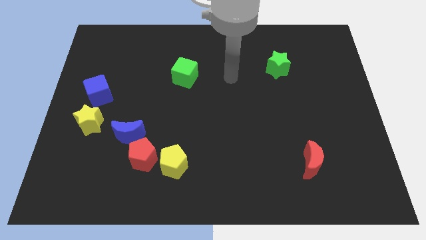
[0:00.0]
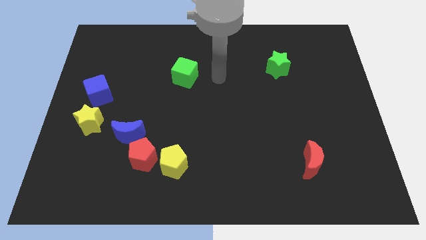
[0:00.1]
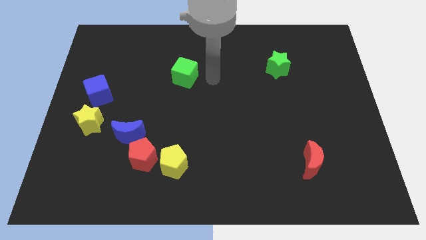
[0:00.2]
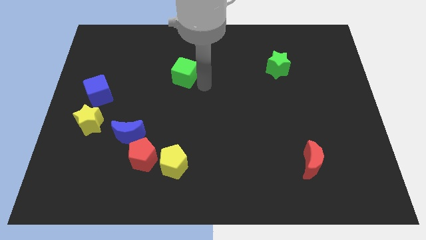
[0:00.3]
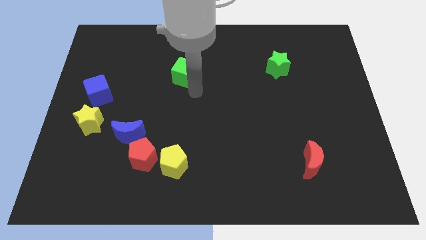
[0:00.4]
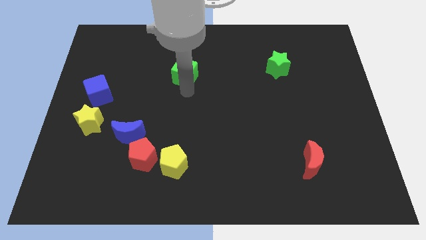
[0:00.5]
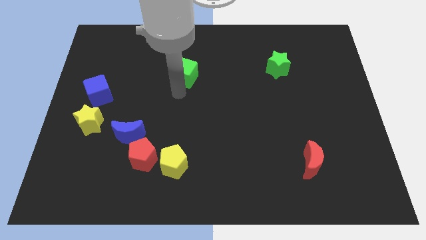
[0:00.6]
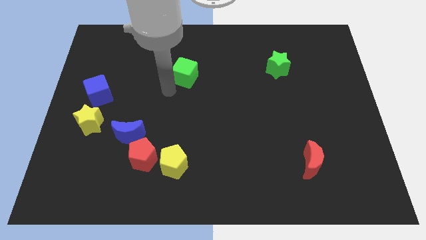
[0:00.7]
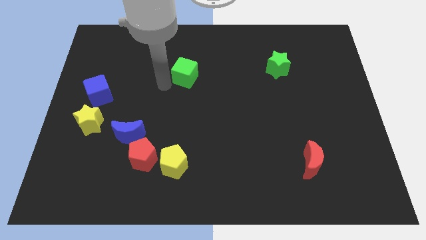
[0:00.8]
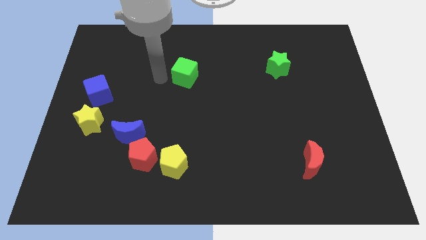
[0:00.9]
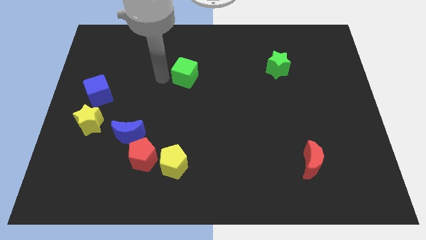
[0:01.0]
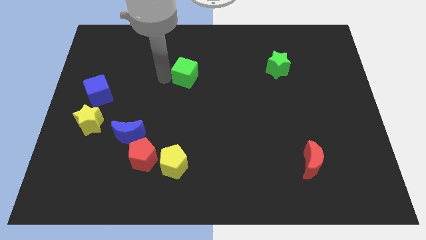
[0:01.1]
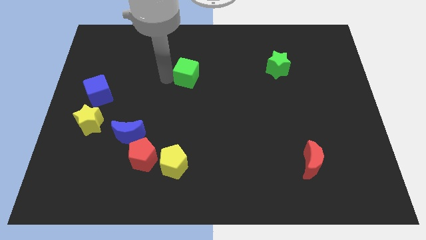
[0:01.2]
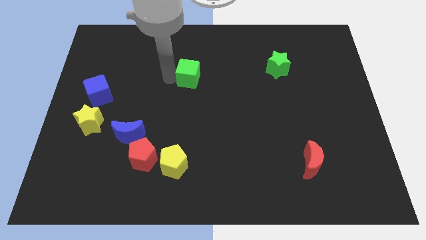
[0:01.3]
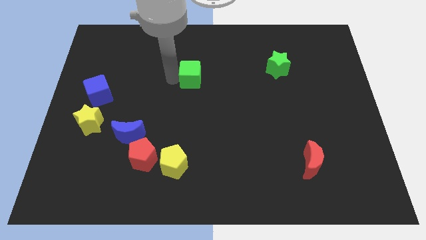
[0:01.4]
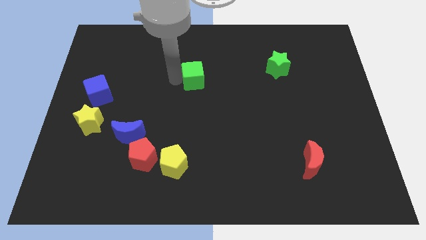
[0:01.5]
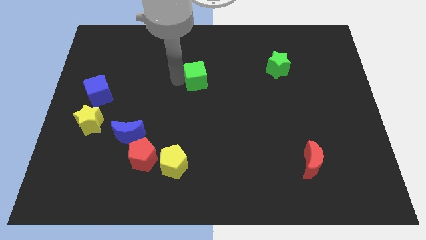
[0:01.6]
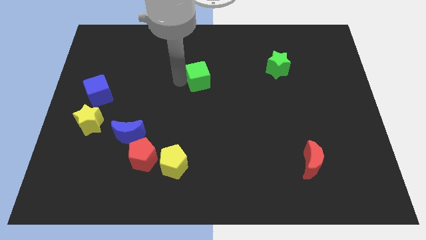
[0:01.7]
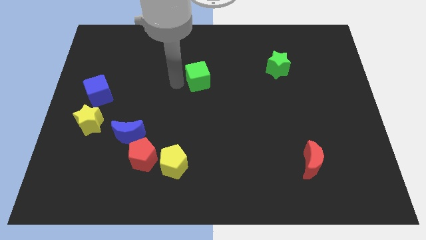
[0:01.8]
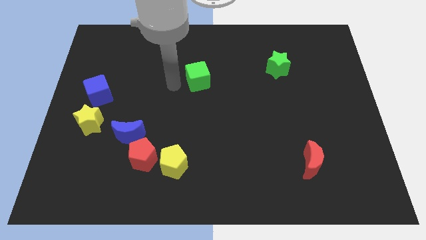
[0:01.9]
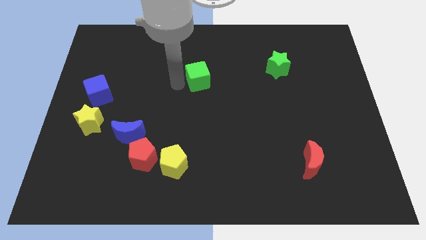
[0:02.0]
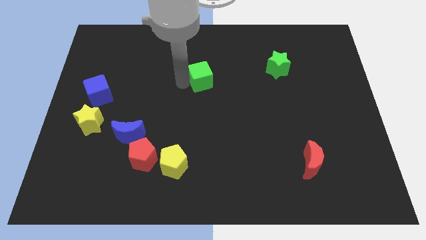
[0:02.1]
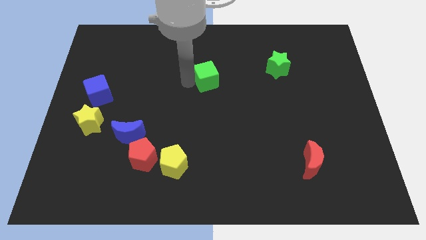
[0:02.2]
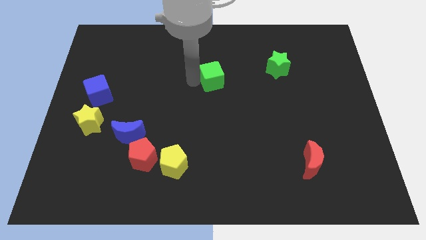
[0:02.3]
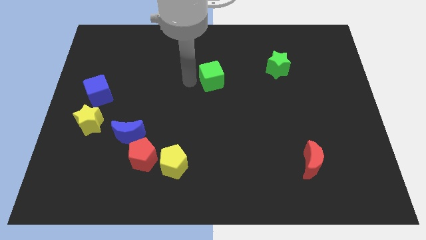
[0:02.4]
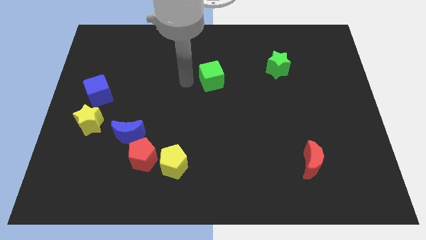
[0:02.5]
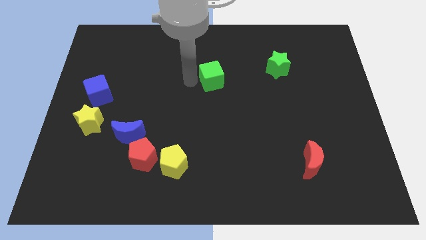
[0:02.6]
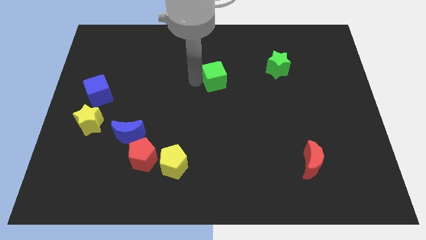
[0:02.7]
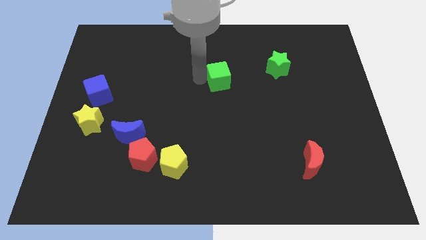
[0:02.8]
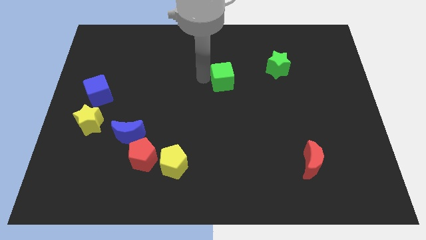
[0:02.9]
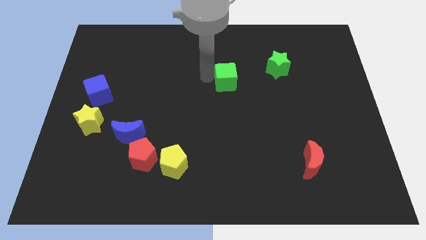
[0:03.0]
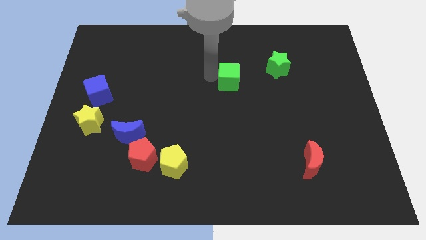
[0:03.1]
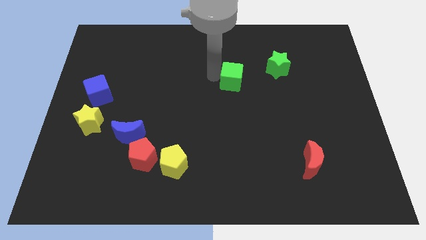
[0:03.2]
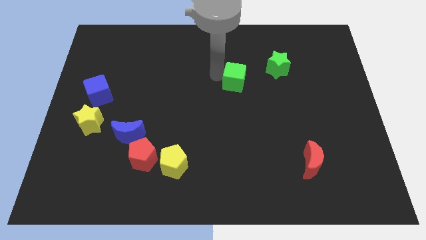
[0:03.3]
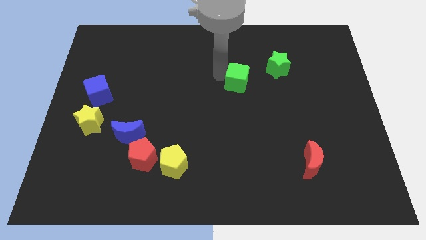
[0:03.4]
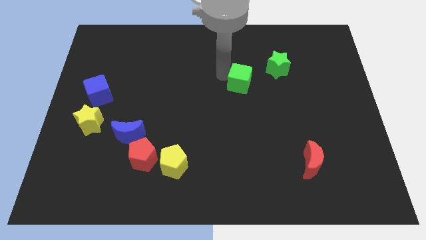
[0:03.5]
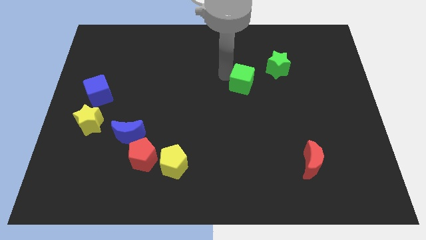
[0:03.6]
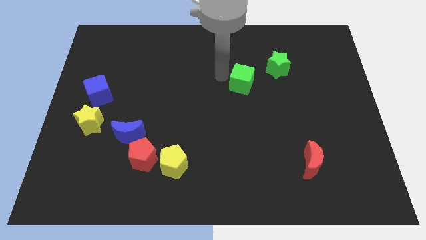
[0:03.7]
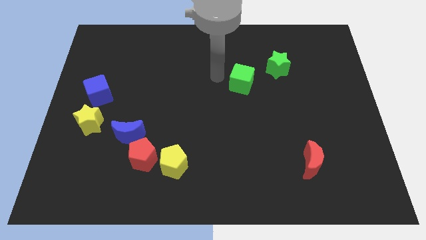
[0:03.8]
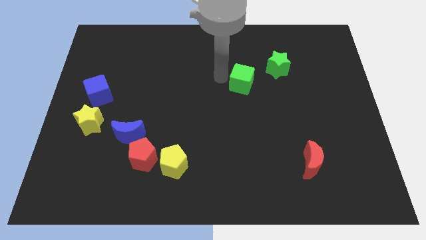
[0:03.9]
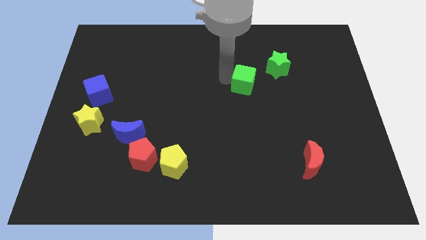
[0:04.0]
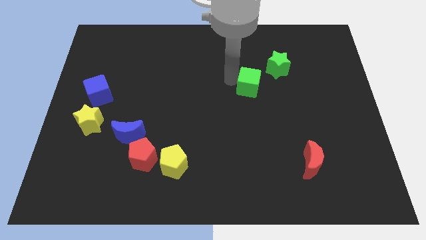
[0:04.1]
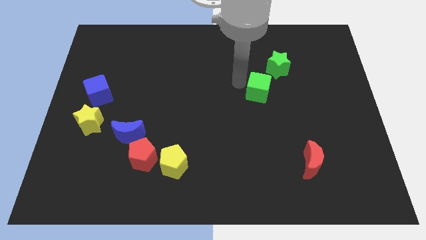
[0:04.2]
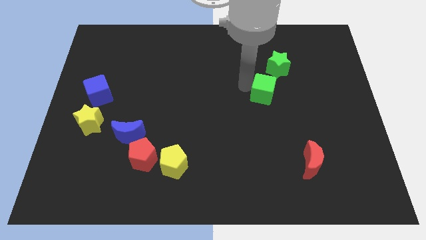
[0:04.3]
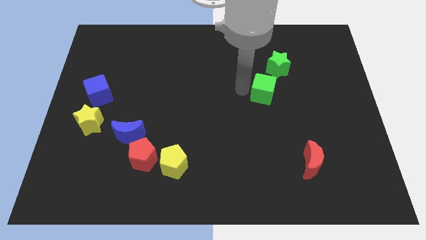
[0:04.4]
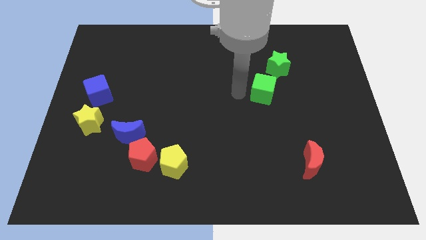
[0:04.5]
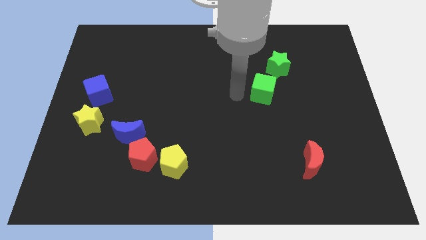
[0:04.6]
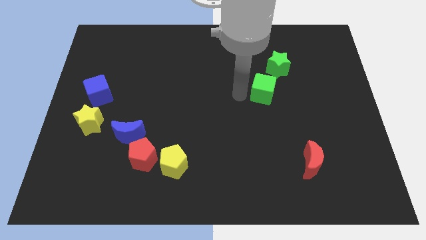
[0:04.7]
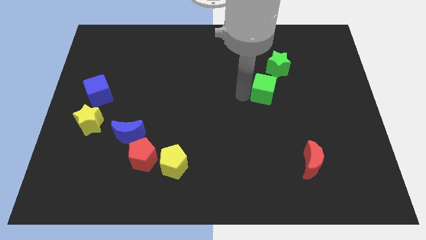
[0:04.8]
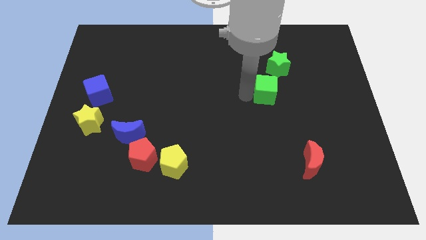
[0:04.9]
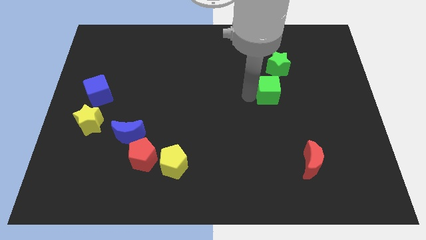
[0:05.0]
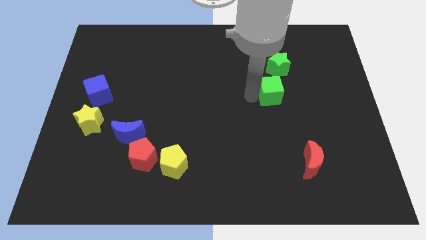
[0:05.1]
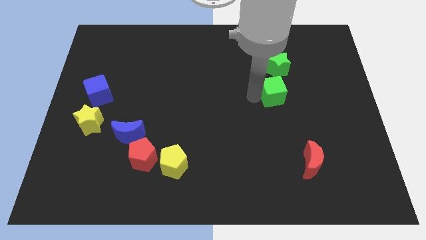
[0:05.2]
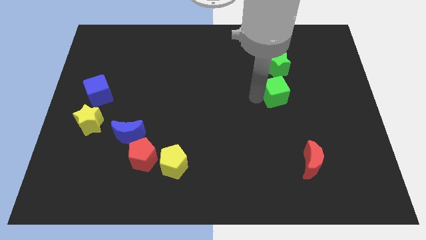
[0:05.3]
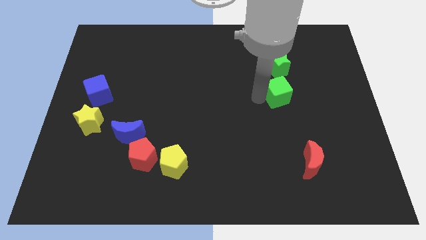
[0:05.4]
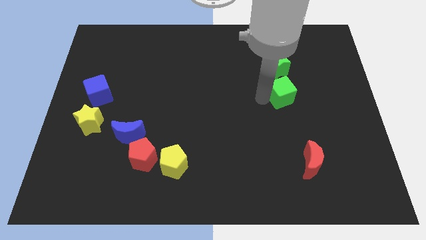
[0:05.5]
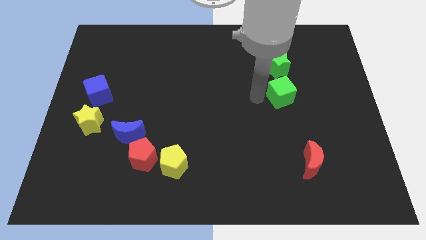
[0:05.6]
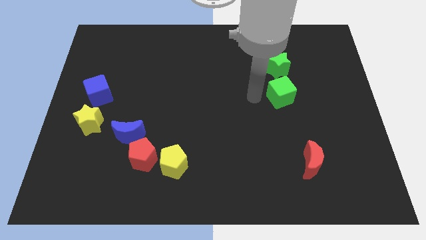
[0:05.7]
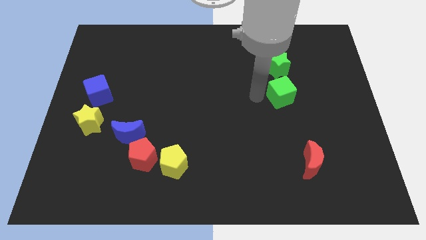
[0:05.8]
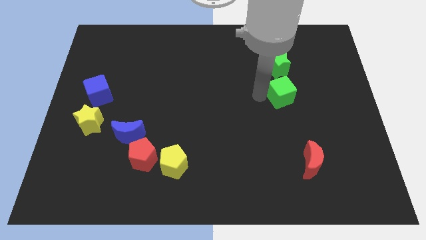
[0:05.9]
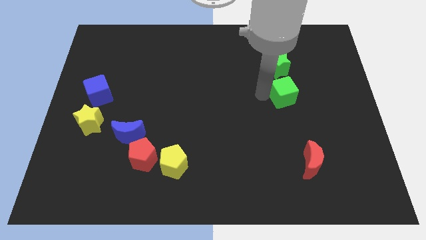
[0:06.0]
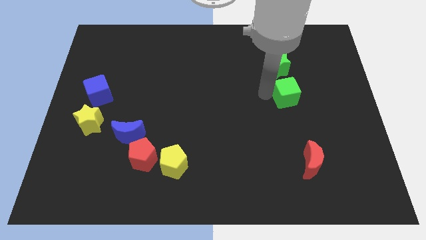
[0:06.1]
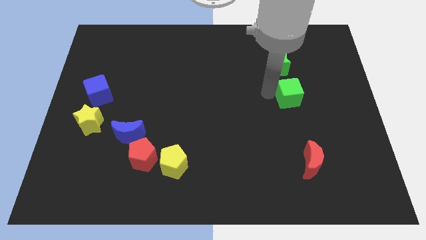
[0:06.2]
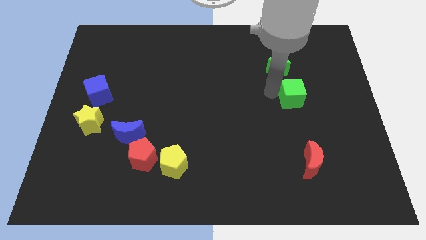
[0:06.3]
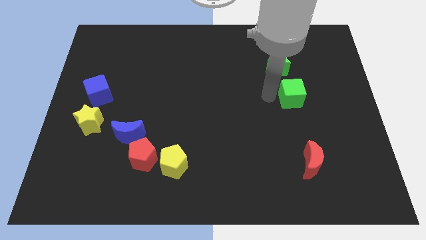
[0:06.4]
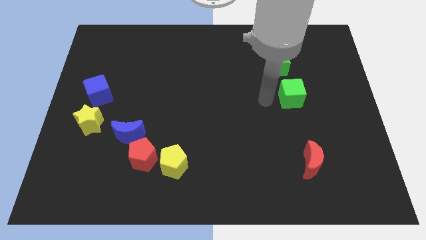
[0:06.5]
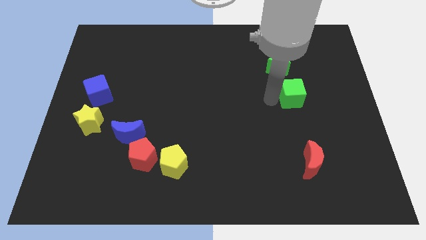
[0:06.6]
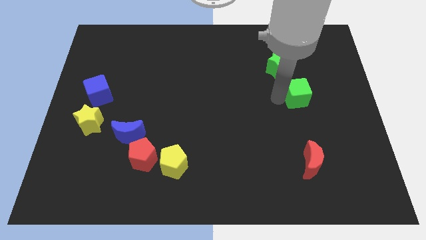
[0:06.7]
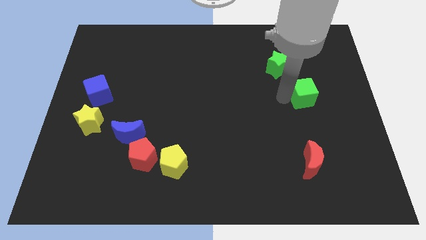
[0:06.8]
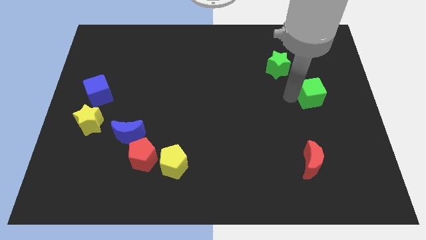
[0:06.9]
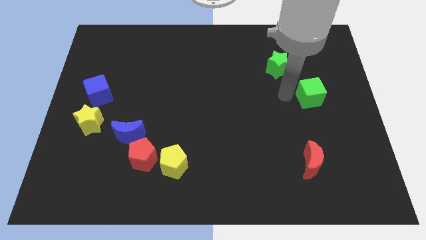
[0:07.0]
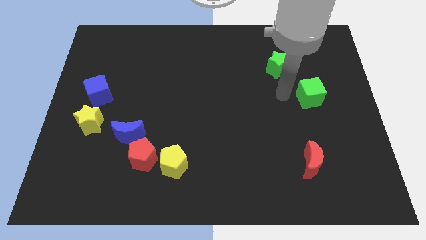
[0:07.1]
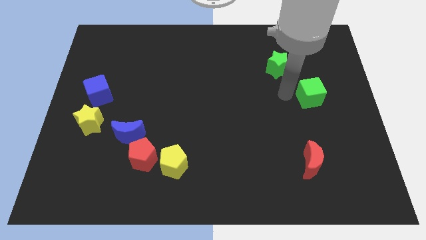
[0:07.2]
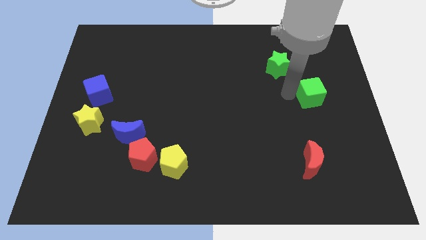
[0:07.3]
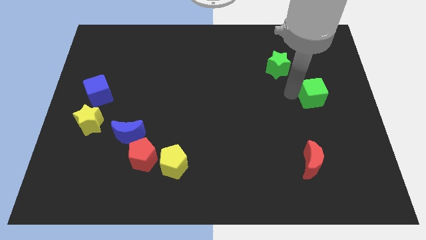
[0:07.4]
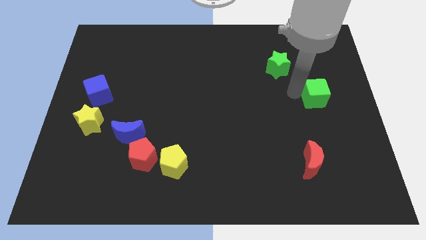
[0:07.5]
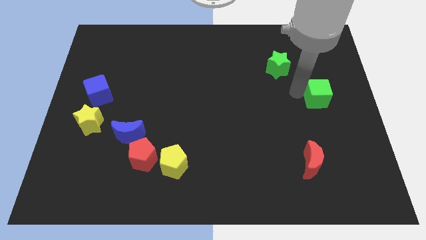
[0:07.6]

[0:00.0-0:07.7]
slide the green cube to the right side
